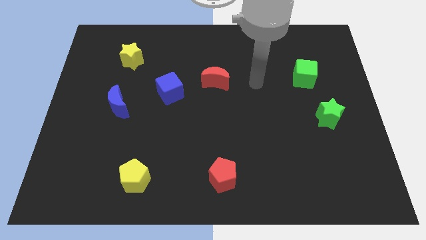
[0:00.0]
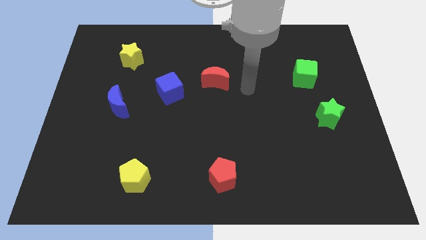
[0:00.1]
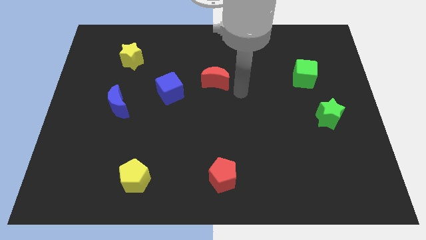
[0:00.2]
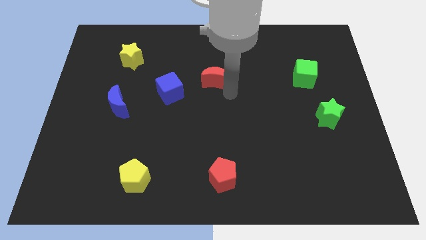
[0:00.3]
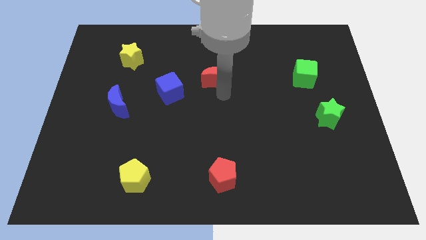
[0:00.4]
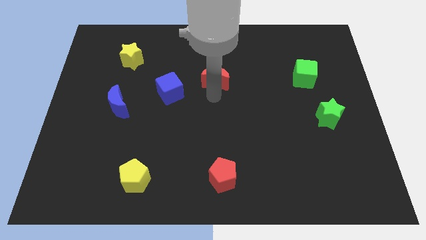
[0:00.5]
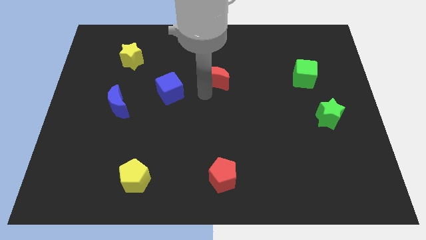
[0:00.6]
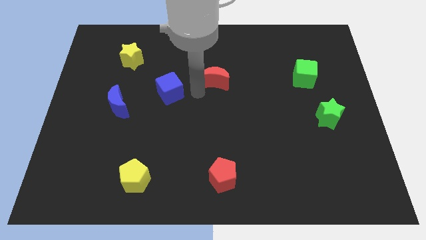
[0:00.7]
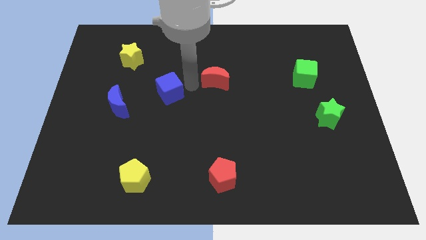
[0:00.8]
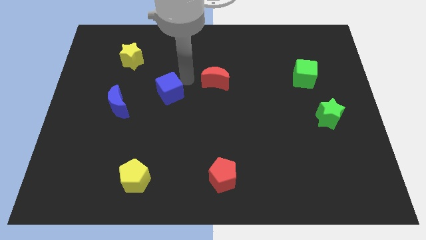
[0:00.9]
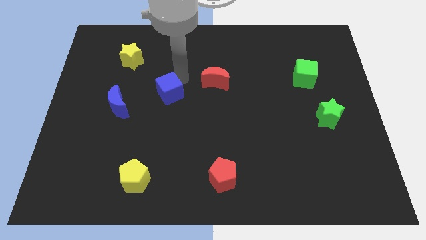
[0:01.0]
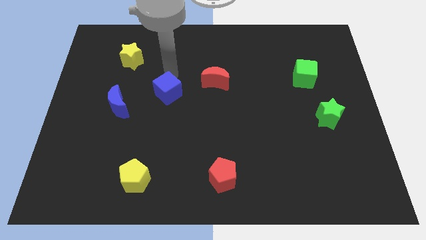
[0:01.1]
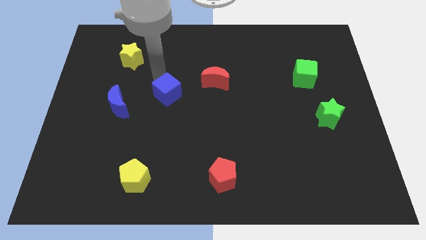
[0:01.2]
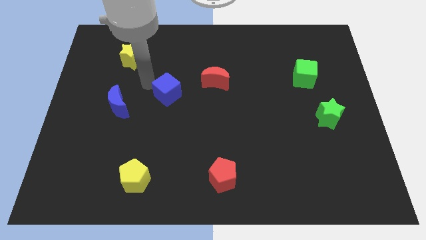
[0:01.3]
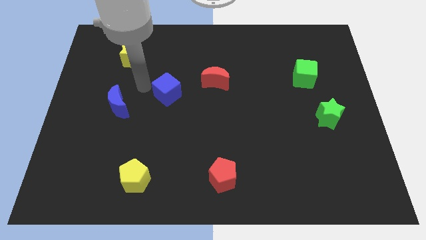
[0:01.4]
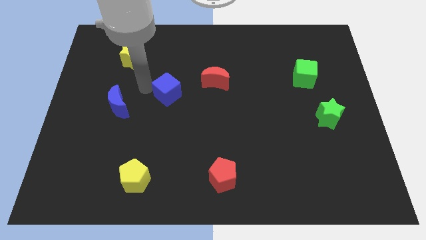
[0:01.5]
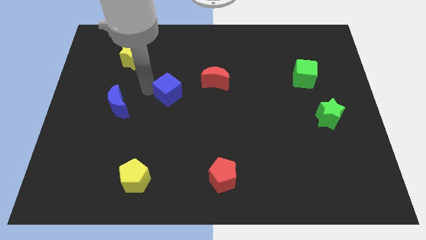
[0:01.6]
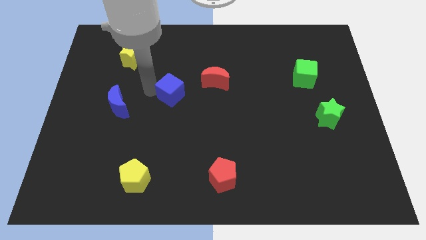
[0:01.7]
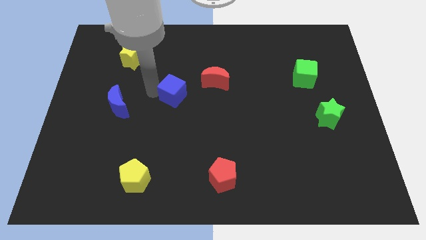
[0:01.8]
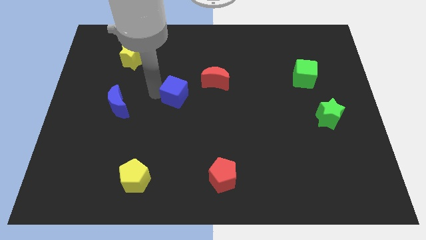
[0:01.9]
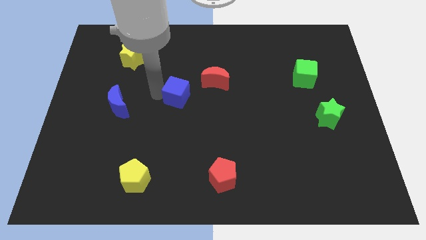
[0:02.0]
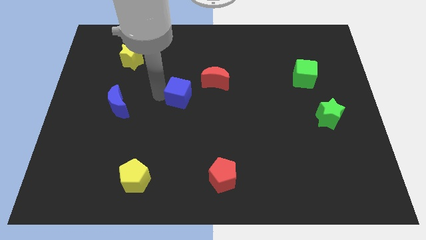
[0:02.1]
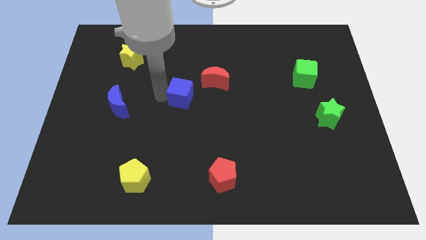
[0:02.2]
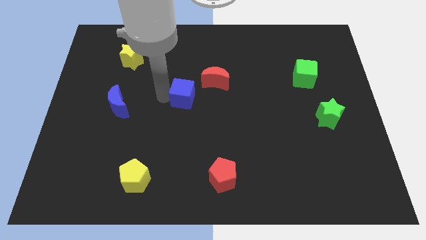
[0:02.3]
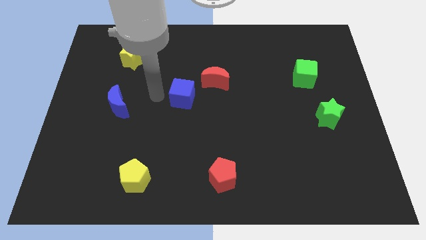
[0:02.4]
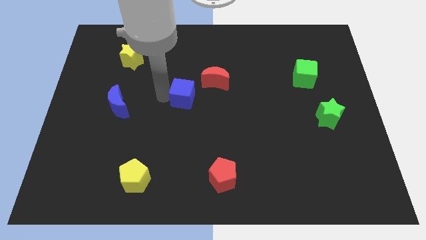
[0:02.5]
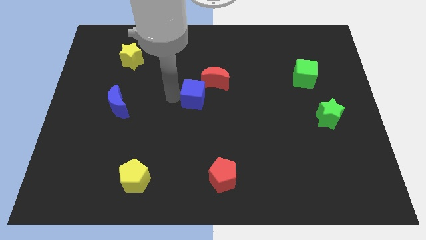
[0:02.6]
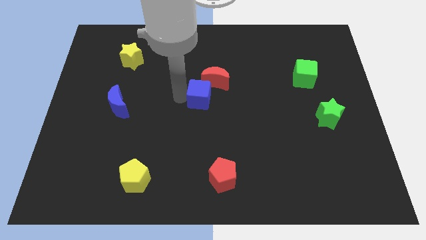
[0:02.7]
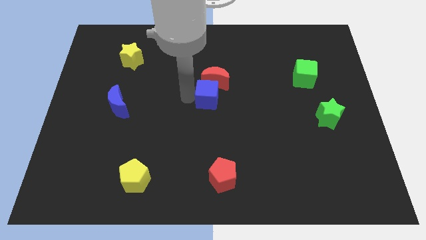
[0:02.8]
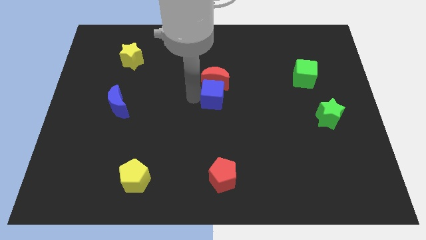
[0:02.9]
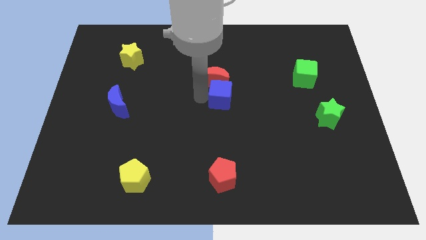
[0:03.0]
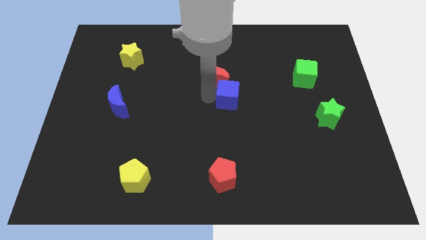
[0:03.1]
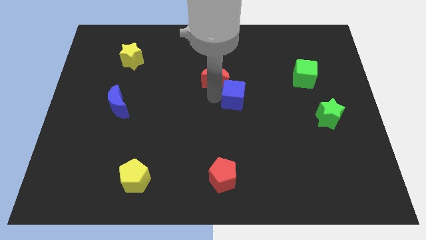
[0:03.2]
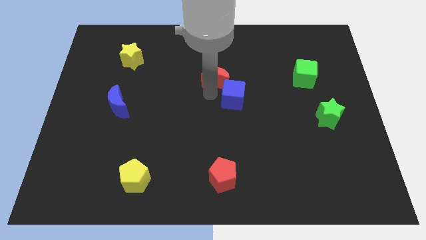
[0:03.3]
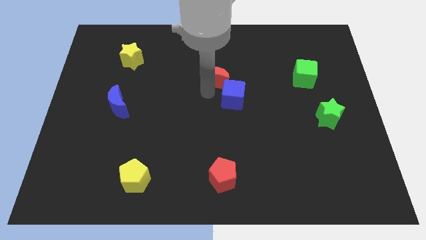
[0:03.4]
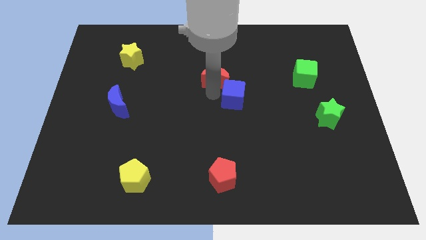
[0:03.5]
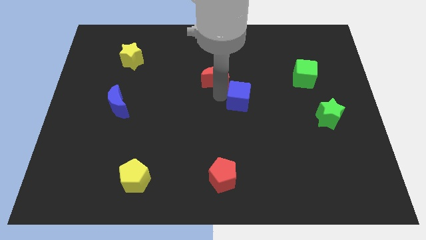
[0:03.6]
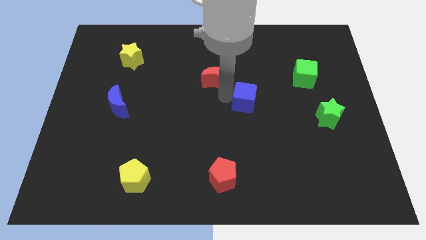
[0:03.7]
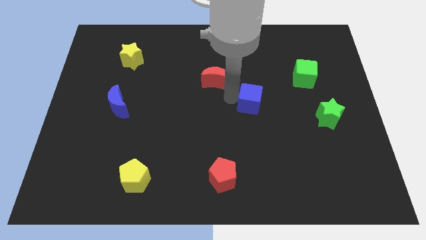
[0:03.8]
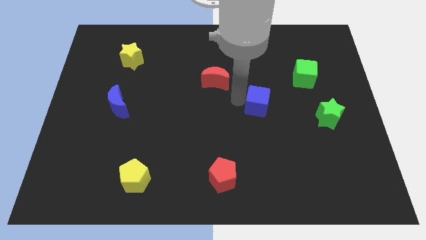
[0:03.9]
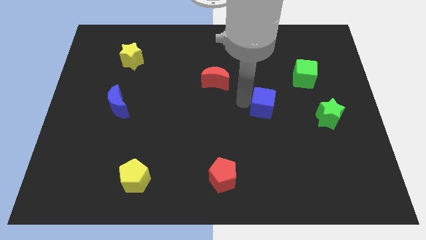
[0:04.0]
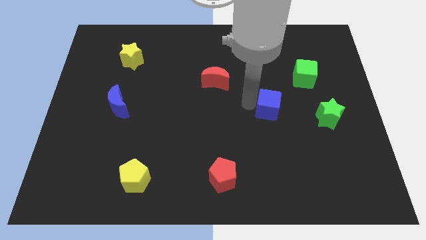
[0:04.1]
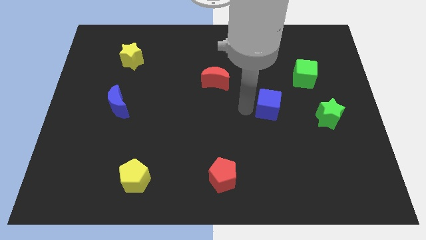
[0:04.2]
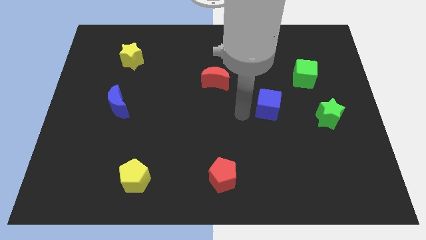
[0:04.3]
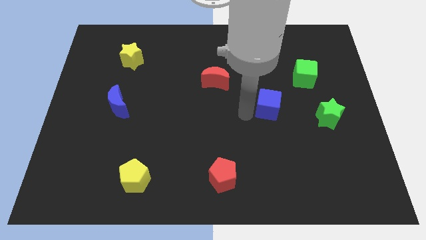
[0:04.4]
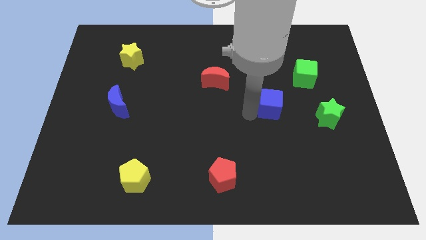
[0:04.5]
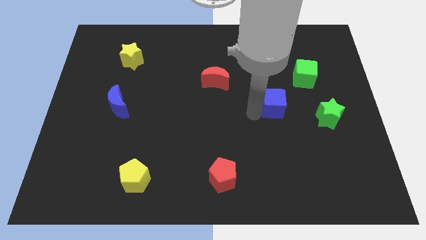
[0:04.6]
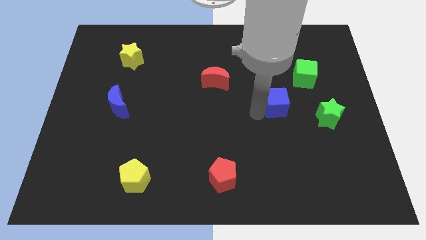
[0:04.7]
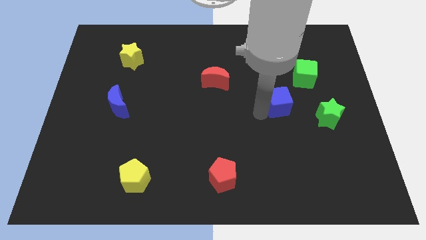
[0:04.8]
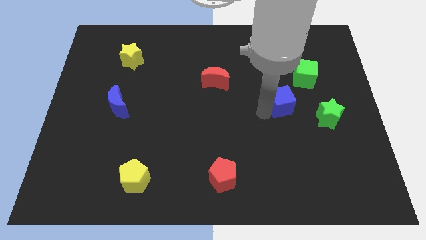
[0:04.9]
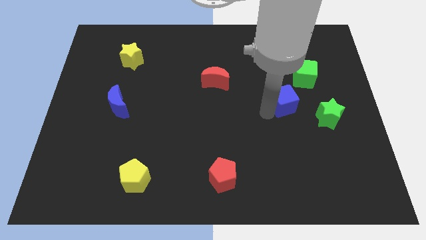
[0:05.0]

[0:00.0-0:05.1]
push the blue cube diagonally up and to the left of the green star

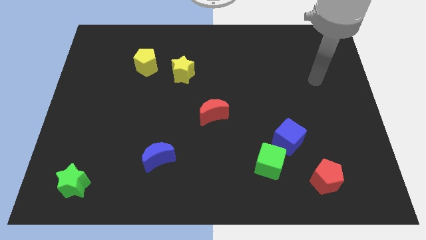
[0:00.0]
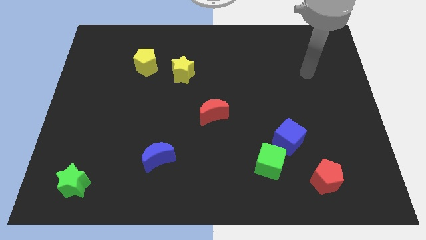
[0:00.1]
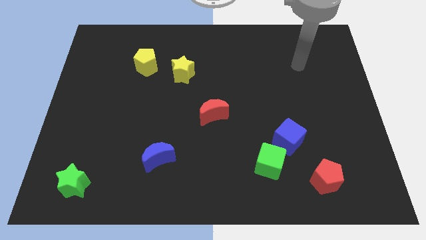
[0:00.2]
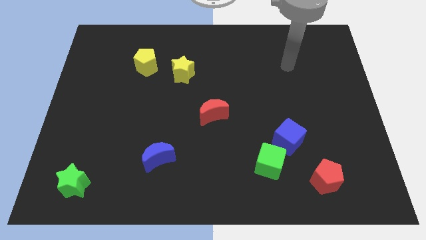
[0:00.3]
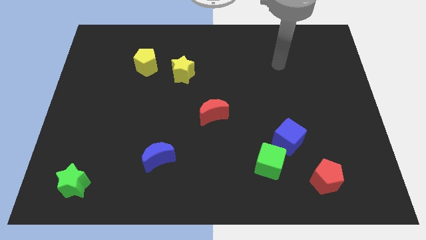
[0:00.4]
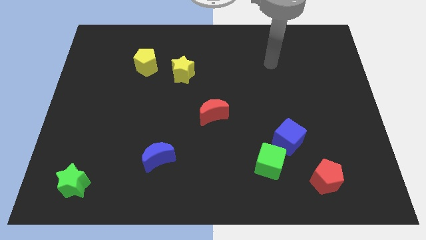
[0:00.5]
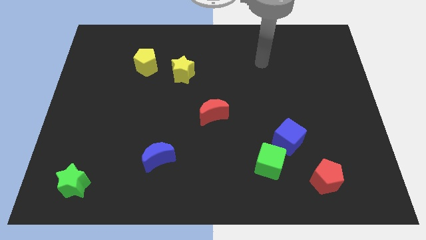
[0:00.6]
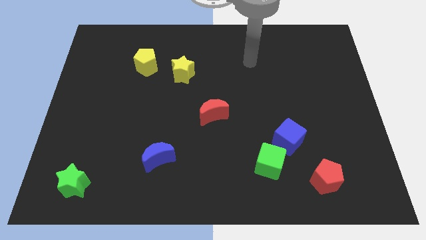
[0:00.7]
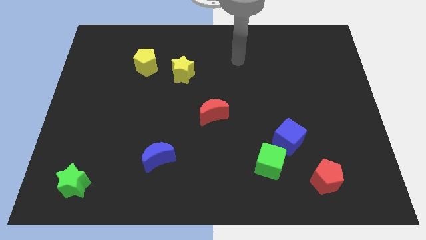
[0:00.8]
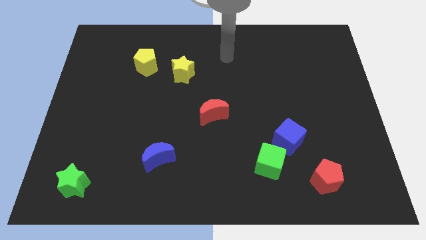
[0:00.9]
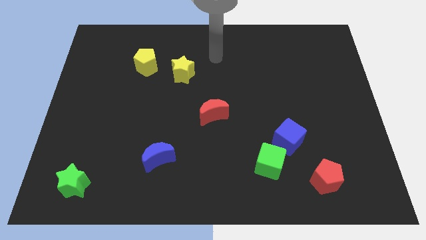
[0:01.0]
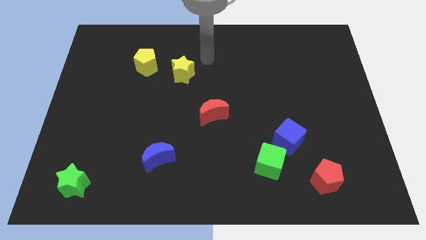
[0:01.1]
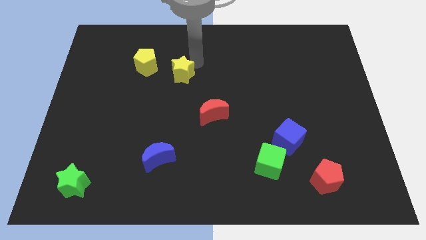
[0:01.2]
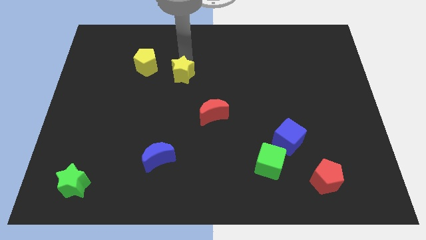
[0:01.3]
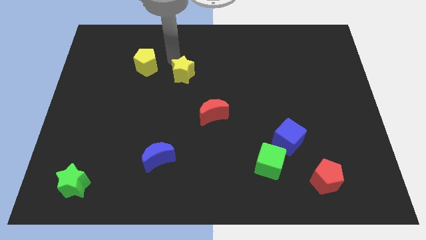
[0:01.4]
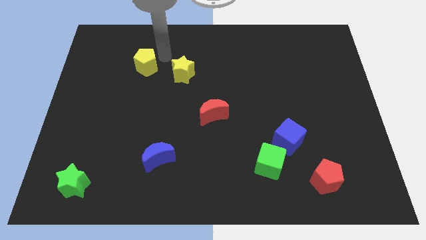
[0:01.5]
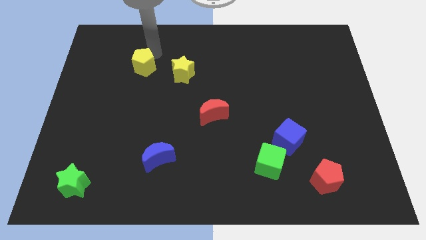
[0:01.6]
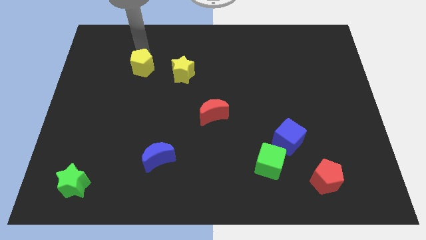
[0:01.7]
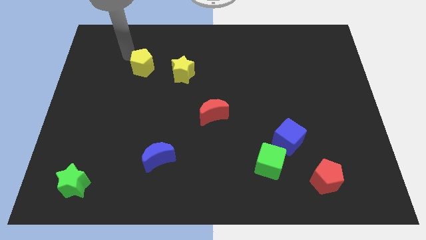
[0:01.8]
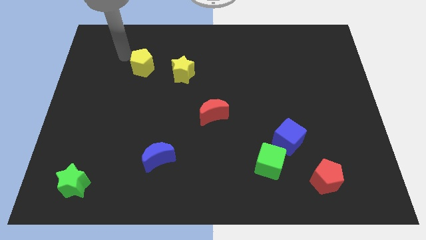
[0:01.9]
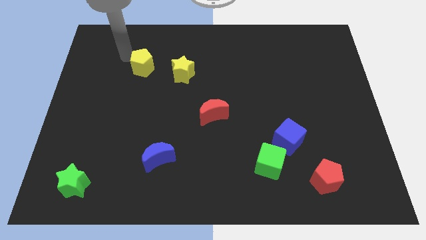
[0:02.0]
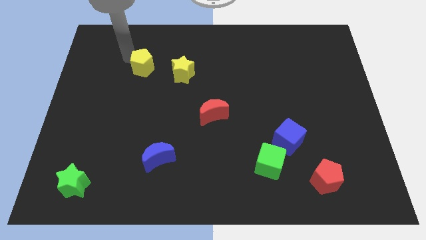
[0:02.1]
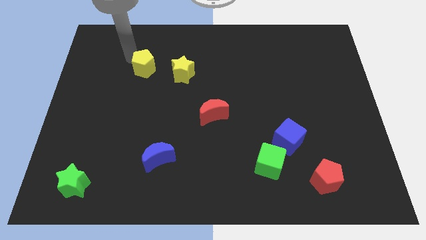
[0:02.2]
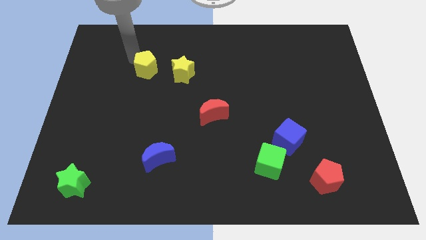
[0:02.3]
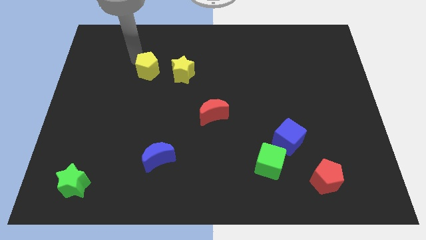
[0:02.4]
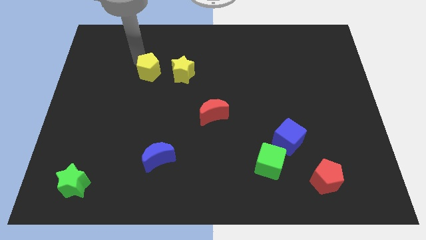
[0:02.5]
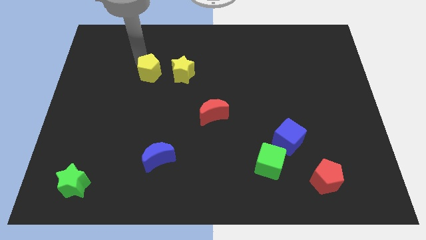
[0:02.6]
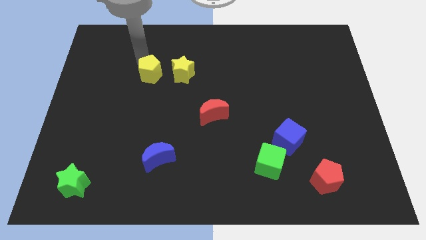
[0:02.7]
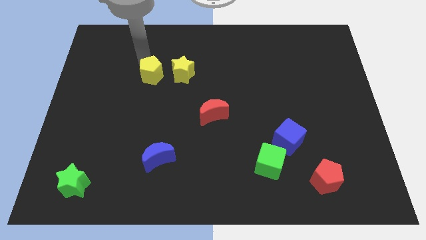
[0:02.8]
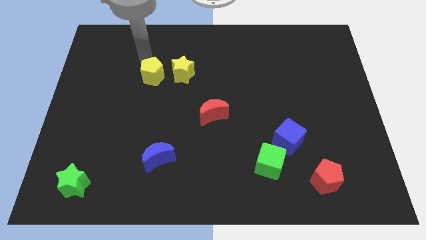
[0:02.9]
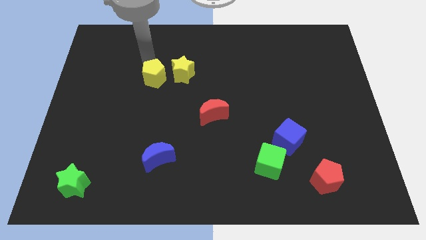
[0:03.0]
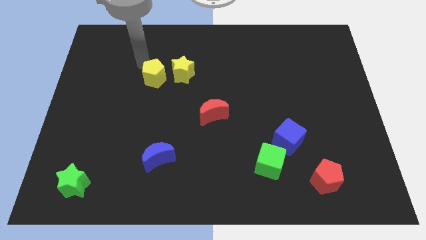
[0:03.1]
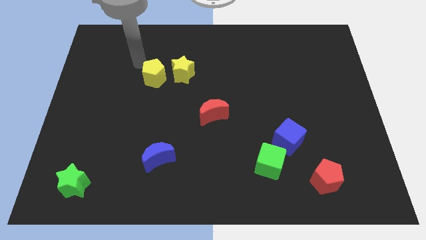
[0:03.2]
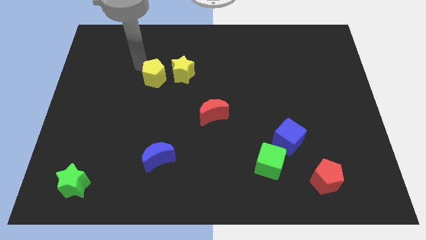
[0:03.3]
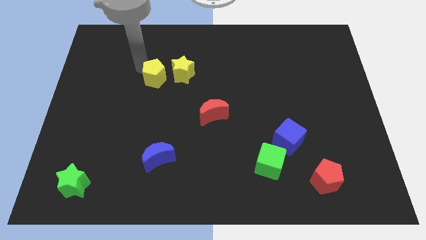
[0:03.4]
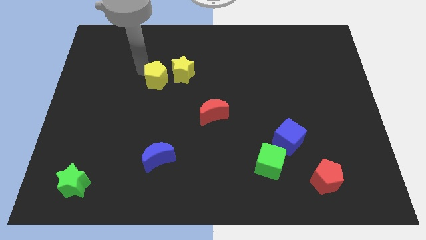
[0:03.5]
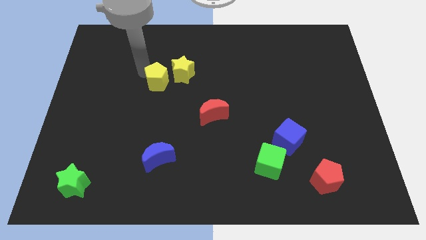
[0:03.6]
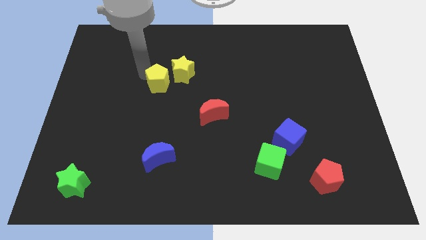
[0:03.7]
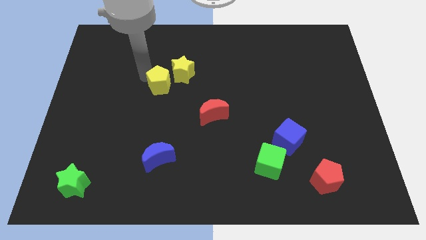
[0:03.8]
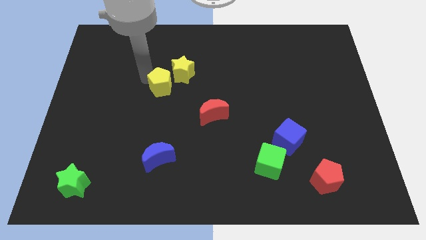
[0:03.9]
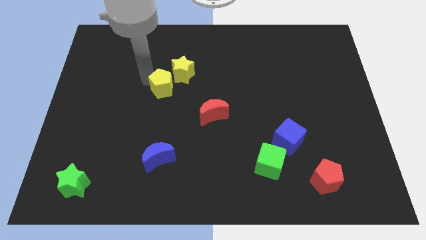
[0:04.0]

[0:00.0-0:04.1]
put the yellow pentagon to the bottom of the yellow star
